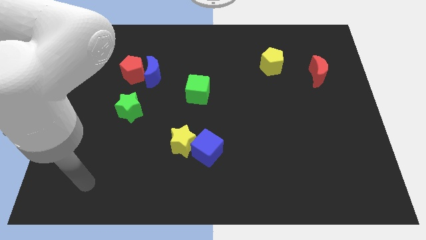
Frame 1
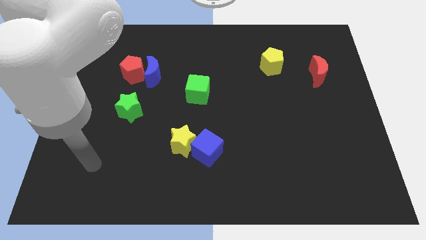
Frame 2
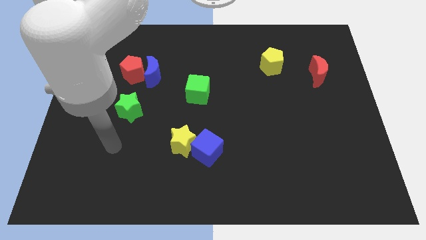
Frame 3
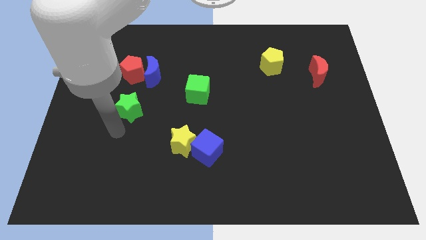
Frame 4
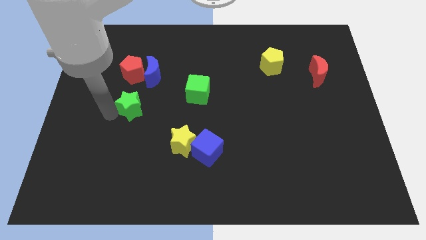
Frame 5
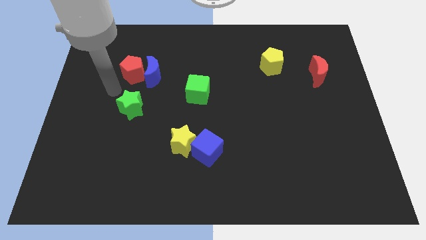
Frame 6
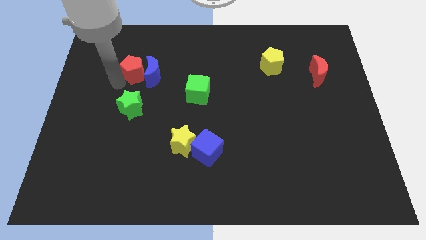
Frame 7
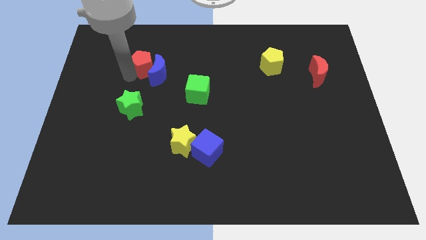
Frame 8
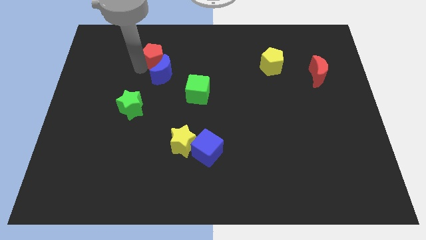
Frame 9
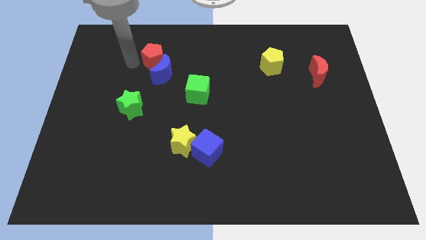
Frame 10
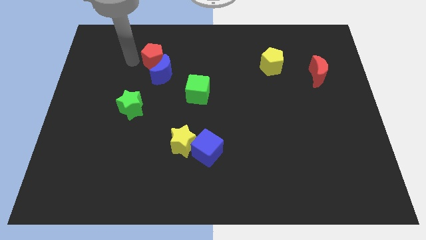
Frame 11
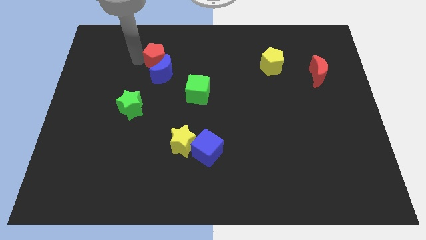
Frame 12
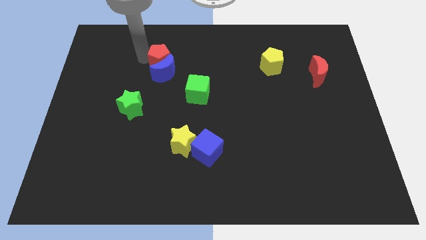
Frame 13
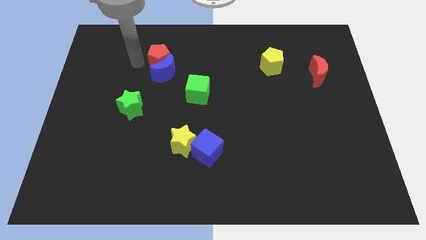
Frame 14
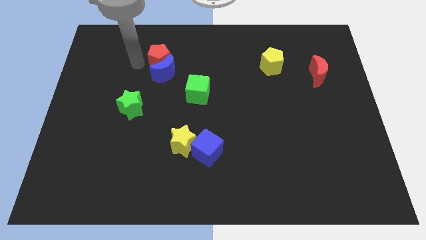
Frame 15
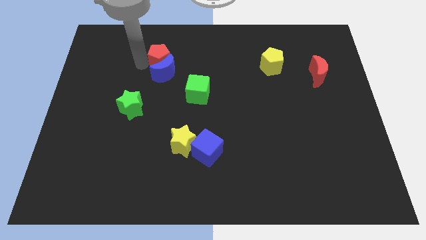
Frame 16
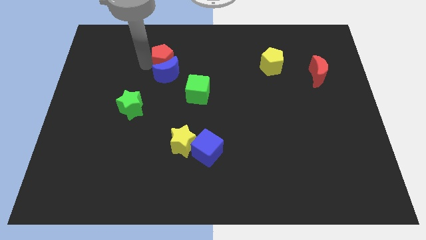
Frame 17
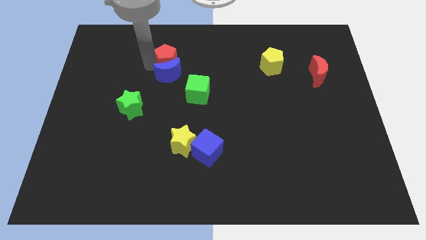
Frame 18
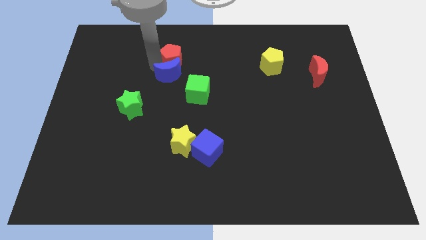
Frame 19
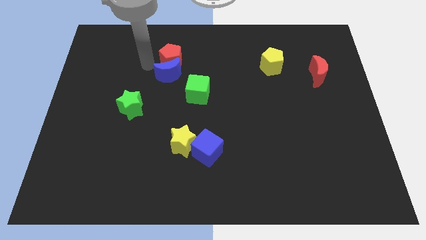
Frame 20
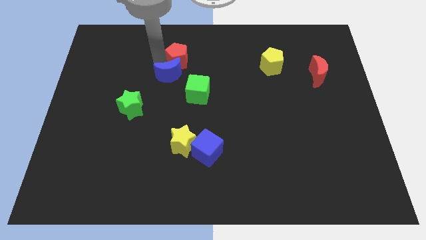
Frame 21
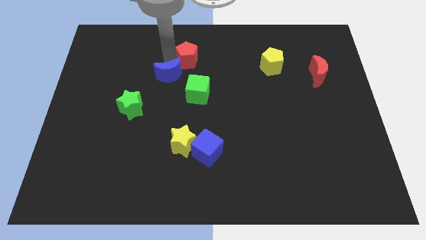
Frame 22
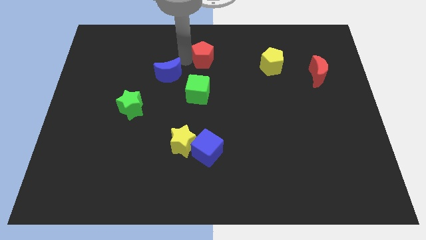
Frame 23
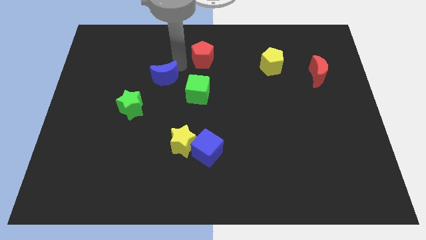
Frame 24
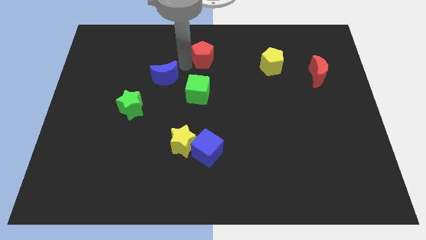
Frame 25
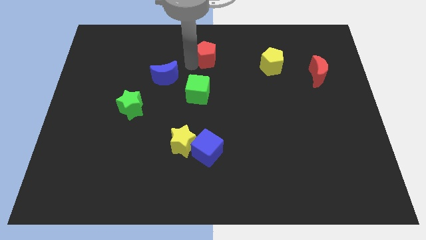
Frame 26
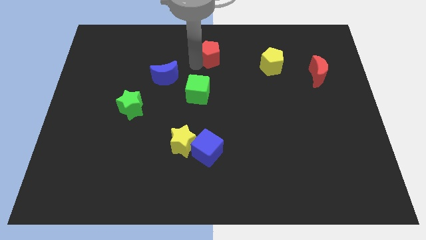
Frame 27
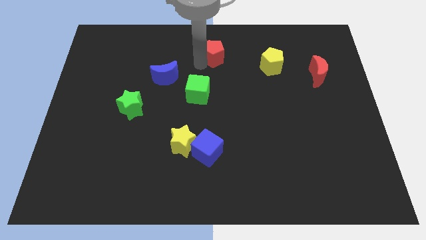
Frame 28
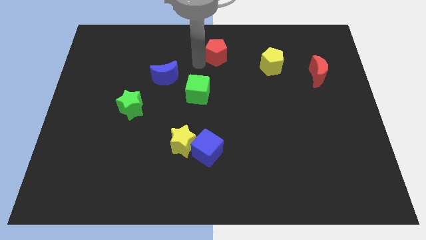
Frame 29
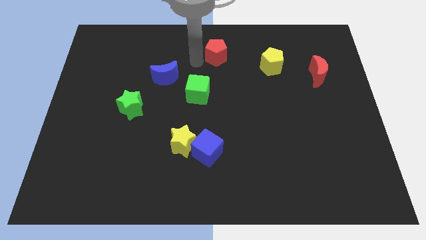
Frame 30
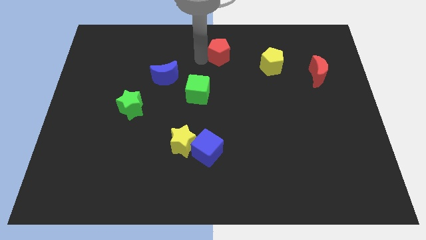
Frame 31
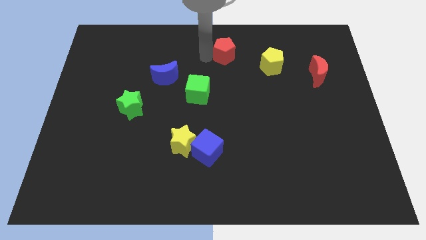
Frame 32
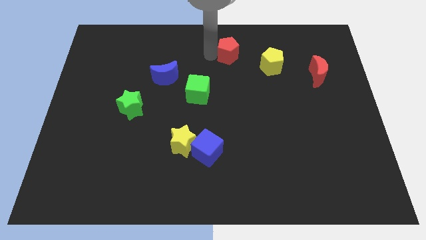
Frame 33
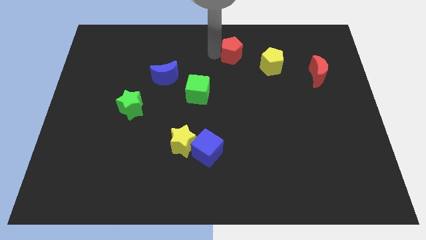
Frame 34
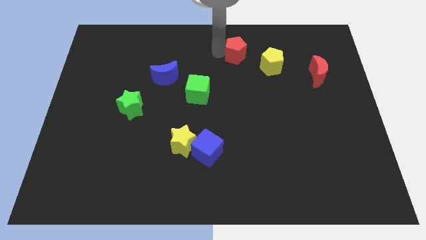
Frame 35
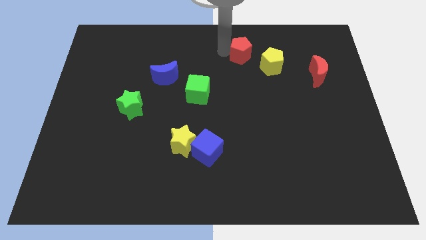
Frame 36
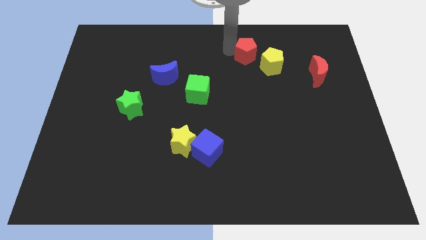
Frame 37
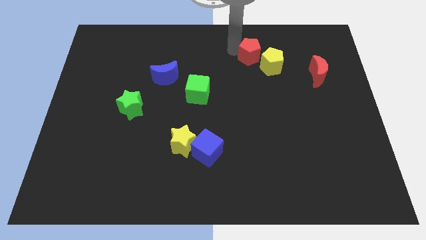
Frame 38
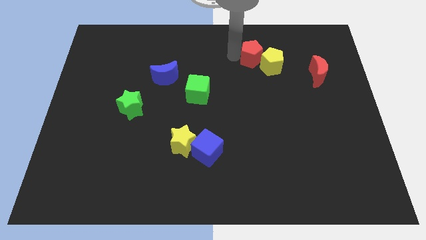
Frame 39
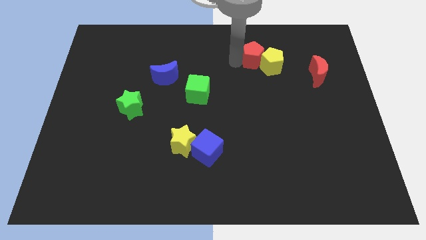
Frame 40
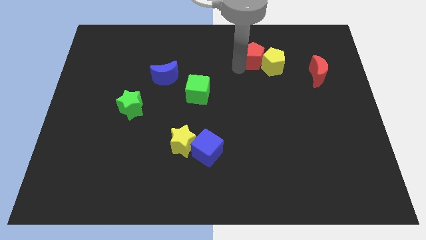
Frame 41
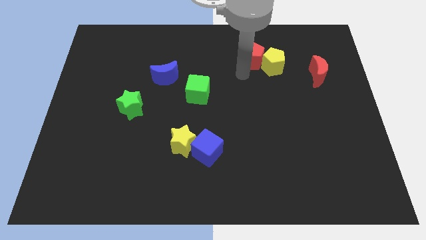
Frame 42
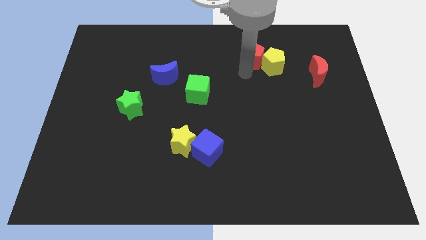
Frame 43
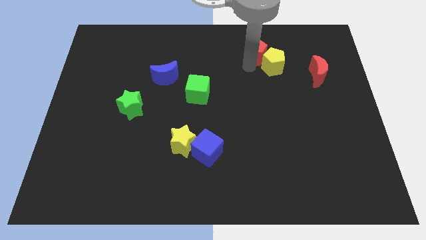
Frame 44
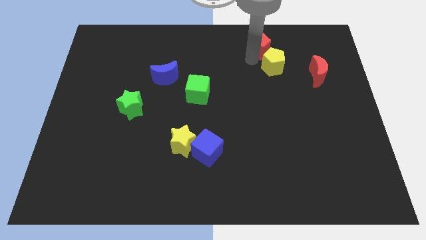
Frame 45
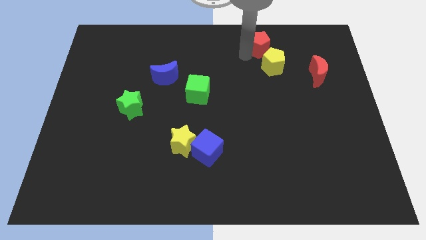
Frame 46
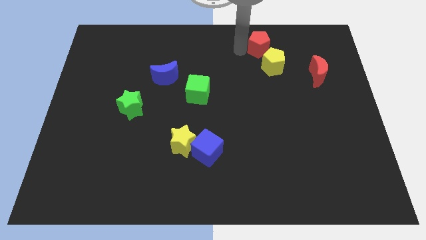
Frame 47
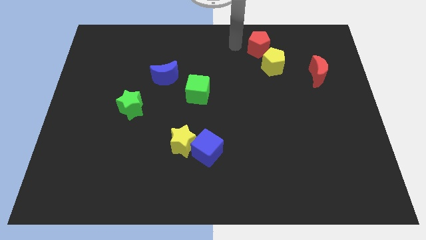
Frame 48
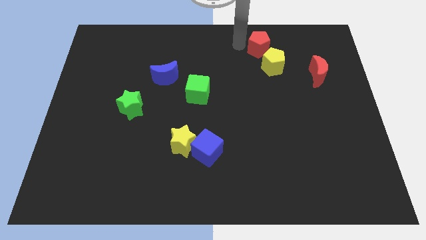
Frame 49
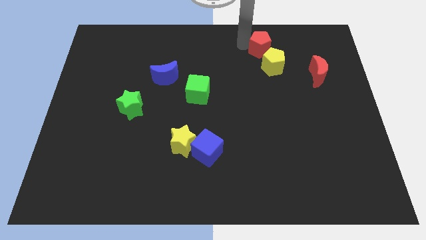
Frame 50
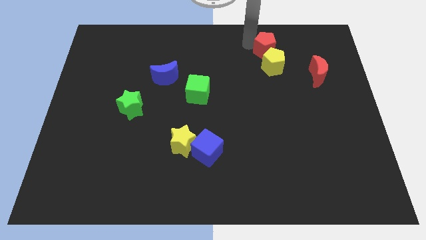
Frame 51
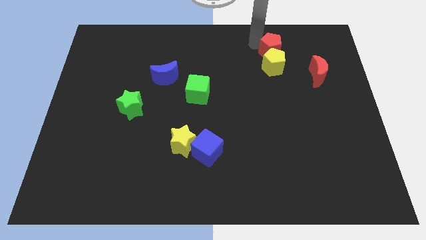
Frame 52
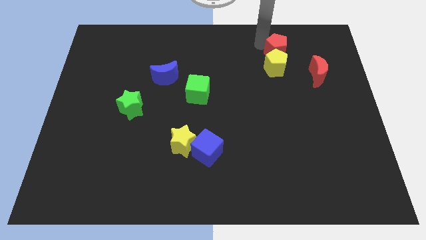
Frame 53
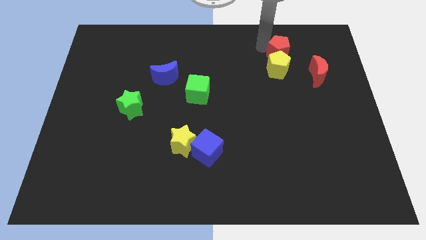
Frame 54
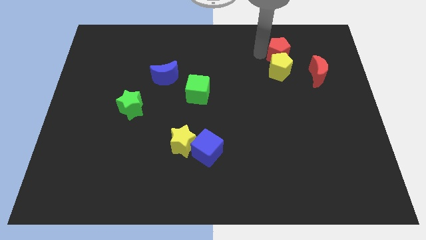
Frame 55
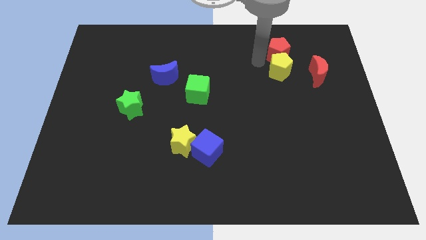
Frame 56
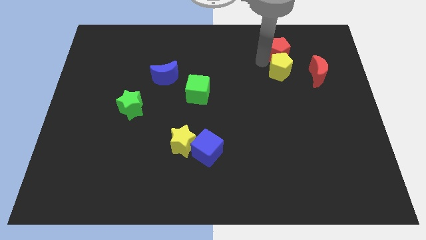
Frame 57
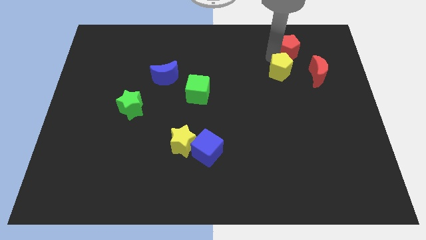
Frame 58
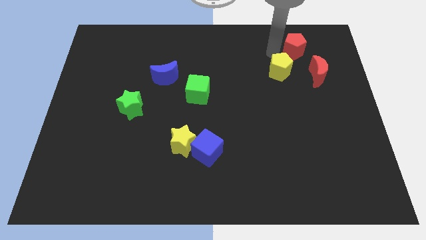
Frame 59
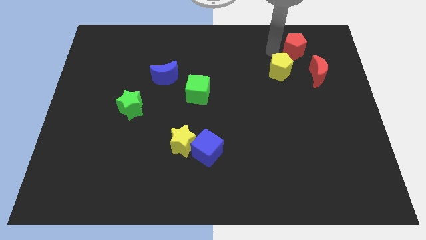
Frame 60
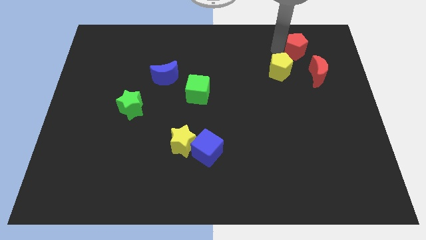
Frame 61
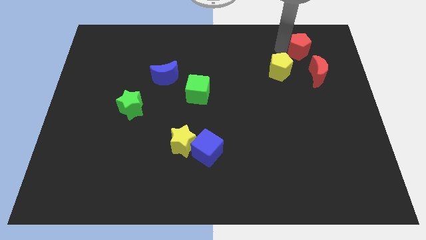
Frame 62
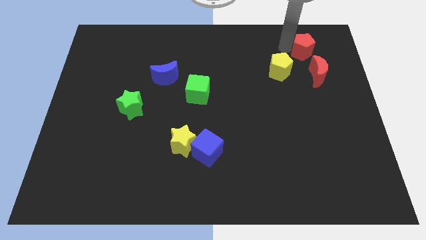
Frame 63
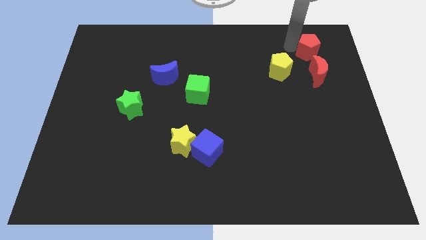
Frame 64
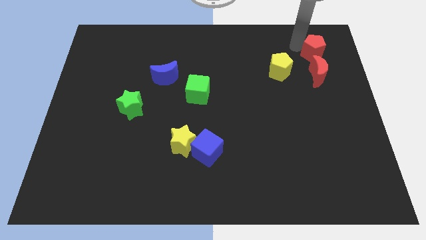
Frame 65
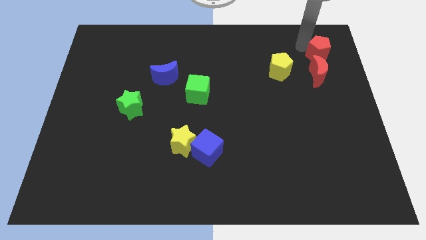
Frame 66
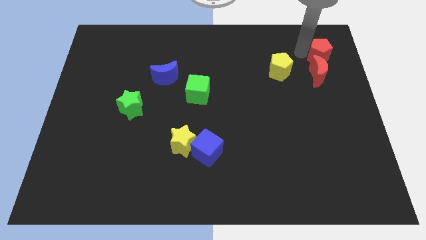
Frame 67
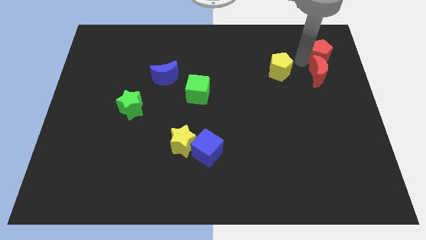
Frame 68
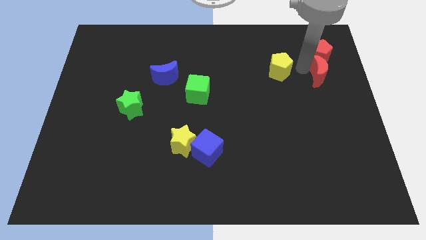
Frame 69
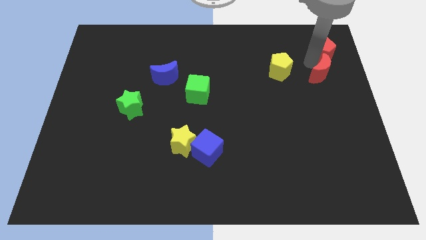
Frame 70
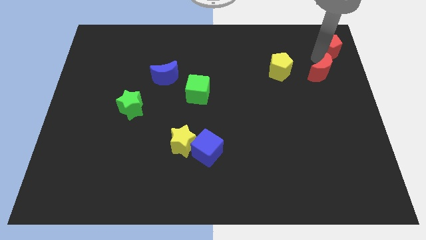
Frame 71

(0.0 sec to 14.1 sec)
move the red pentagon to the top right
